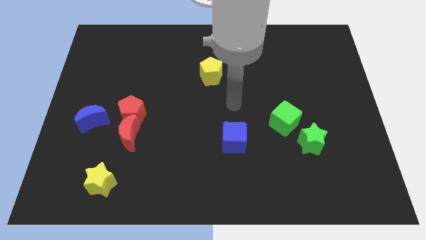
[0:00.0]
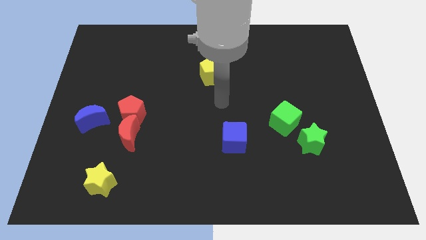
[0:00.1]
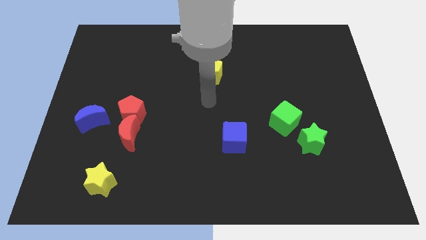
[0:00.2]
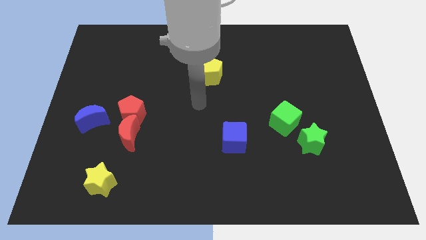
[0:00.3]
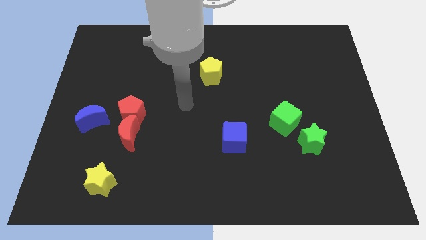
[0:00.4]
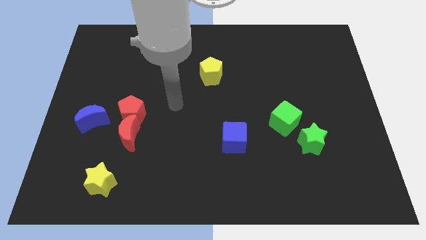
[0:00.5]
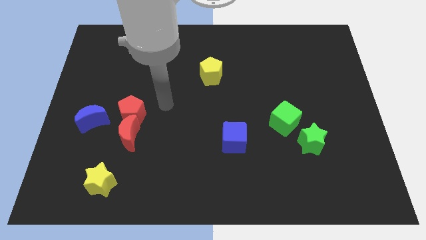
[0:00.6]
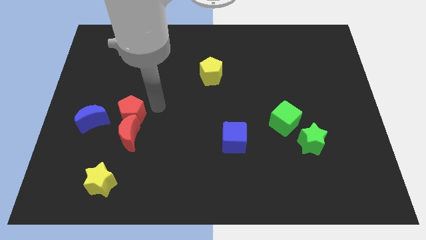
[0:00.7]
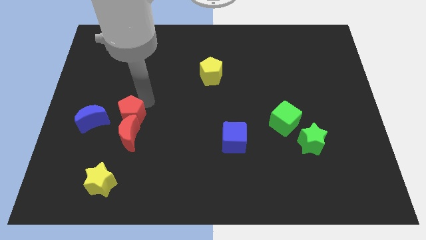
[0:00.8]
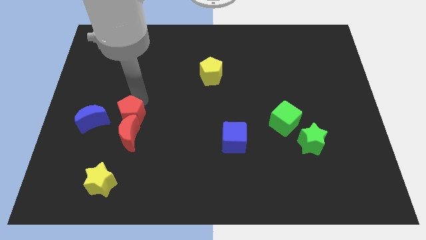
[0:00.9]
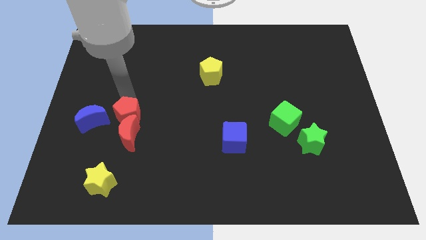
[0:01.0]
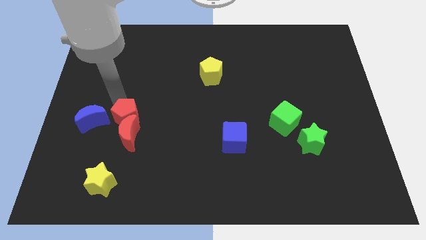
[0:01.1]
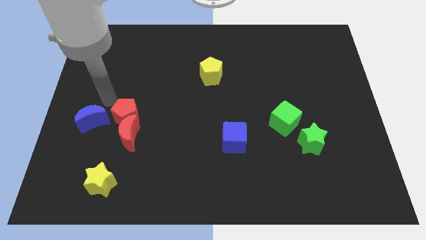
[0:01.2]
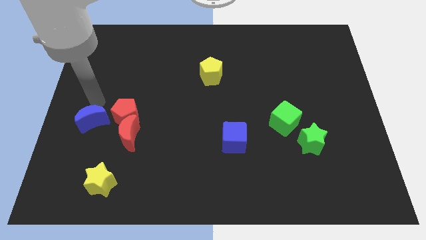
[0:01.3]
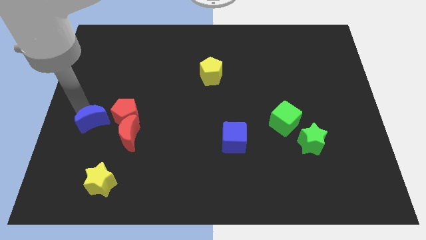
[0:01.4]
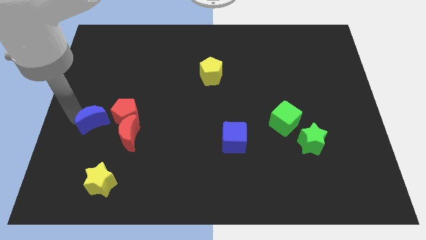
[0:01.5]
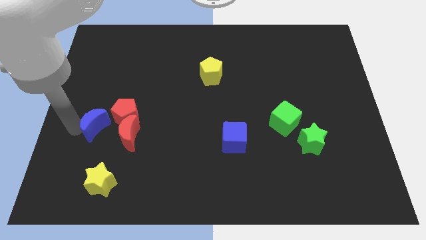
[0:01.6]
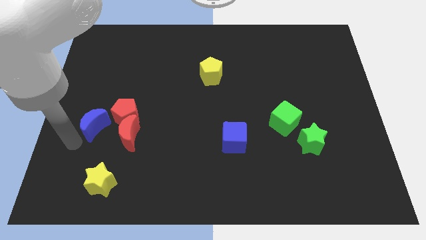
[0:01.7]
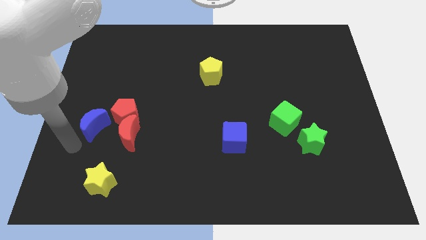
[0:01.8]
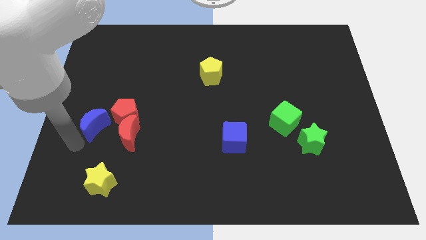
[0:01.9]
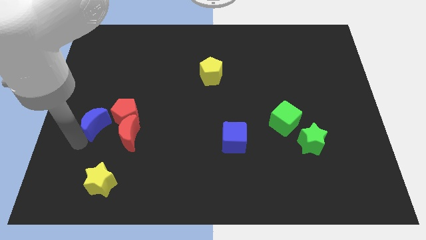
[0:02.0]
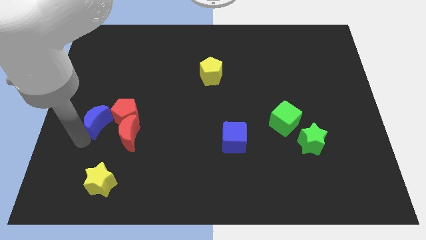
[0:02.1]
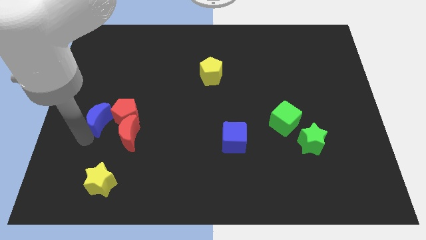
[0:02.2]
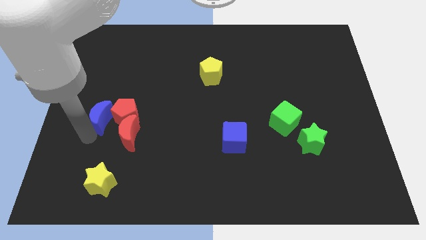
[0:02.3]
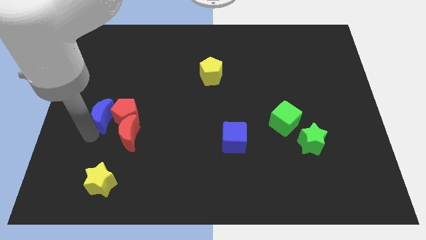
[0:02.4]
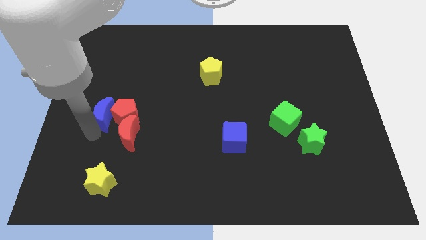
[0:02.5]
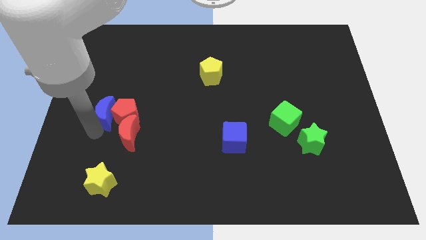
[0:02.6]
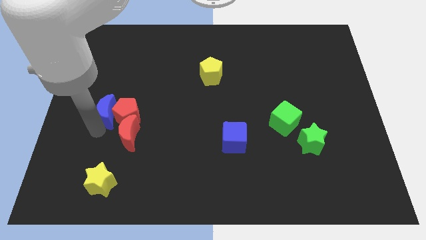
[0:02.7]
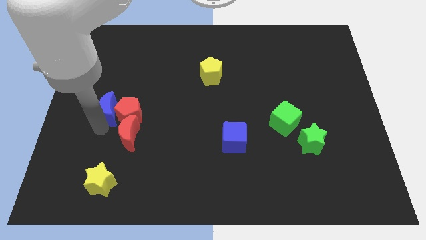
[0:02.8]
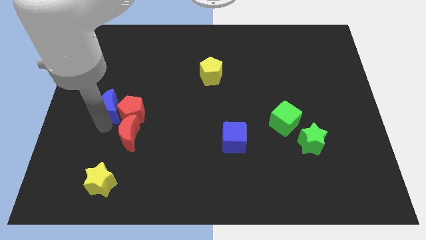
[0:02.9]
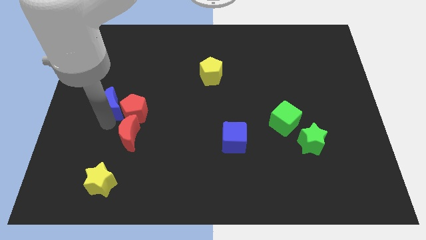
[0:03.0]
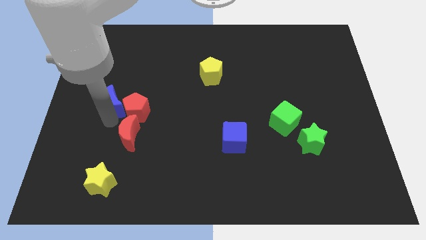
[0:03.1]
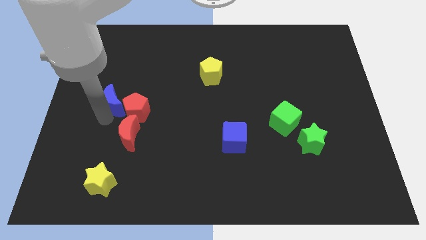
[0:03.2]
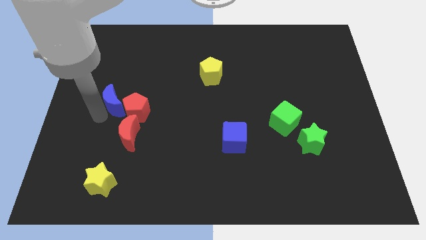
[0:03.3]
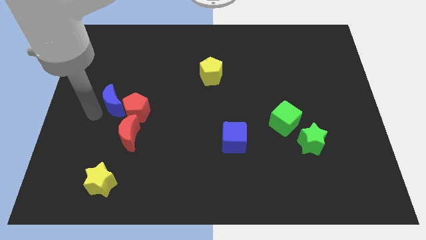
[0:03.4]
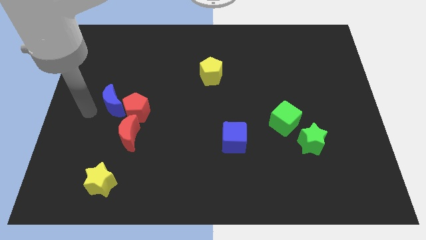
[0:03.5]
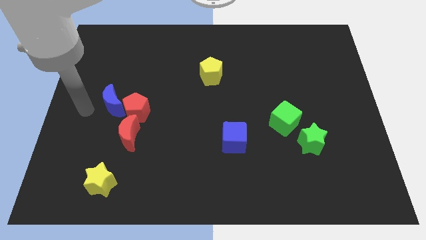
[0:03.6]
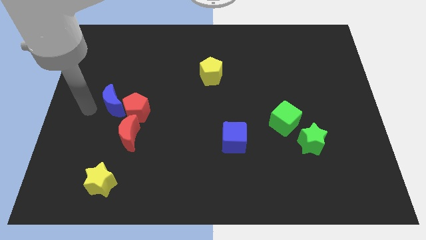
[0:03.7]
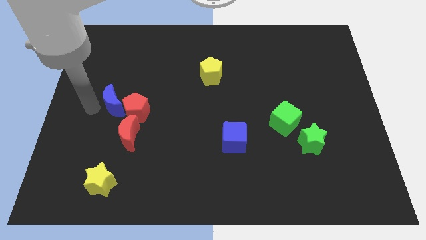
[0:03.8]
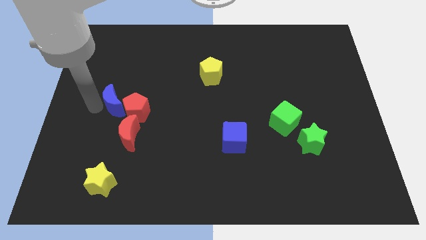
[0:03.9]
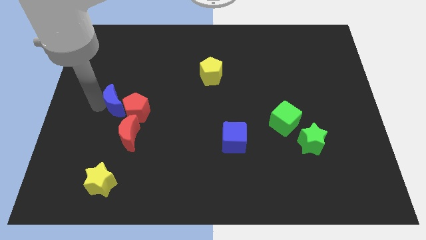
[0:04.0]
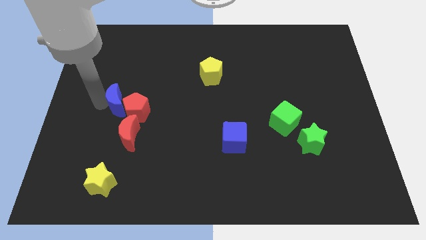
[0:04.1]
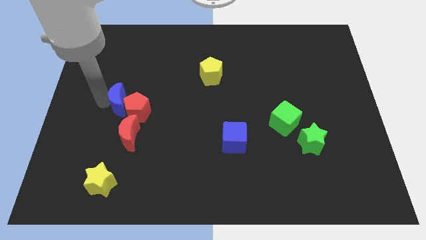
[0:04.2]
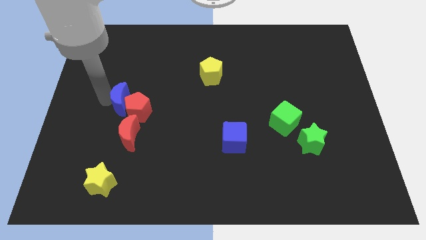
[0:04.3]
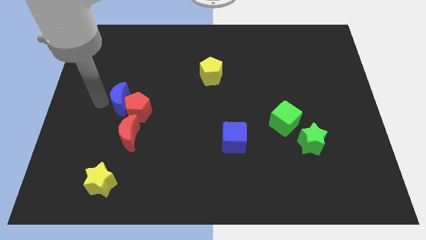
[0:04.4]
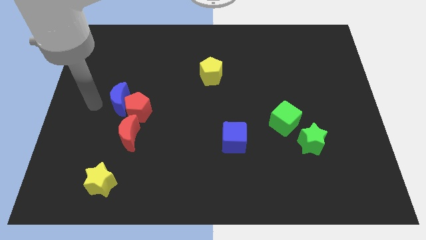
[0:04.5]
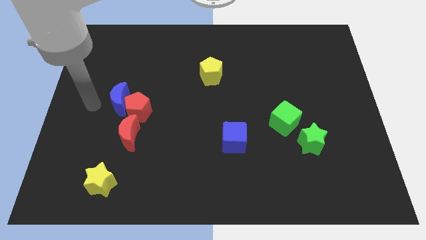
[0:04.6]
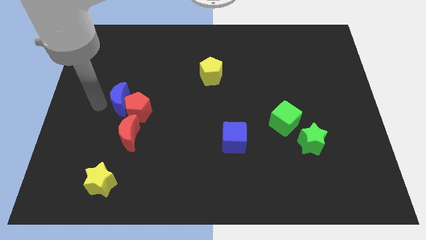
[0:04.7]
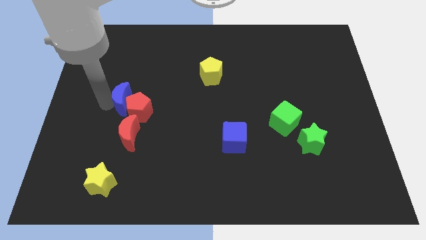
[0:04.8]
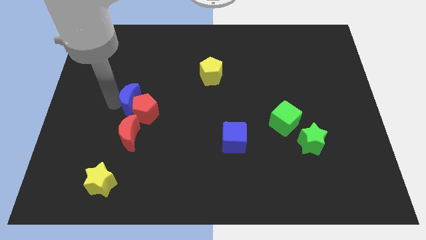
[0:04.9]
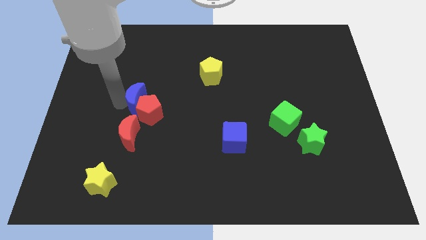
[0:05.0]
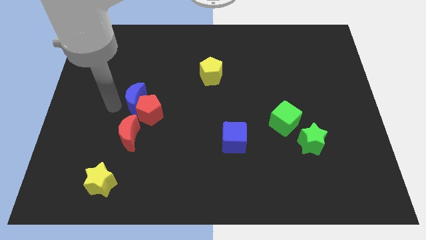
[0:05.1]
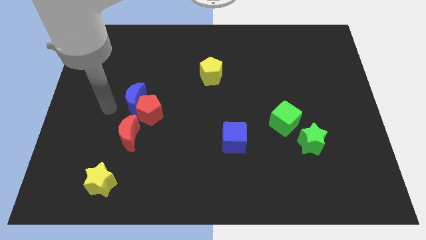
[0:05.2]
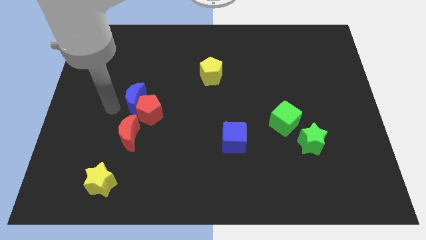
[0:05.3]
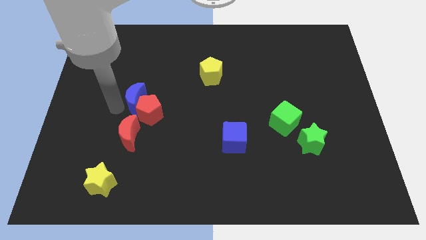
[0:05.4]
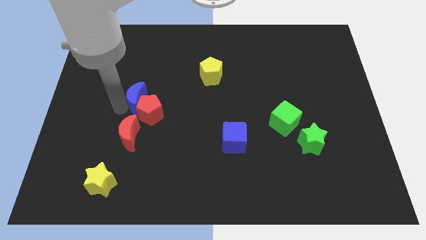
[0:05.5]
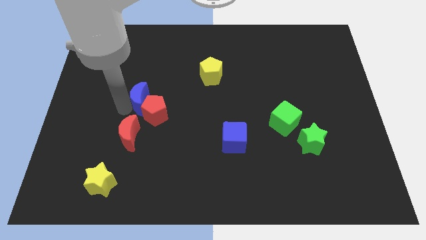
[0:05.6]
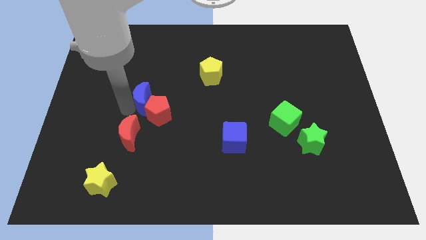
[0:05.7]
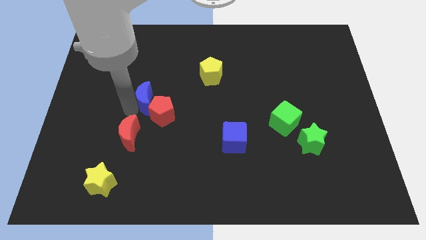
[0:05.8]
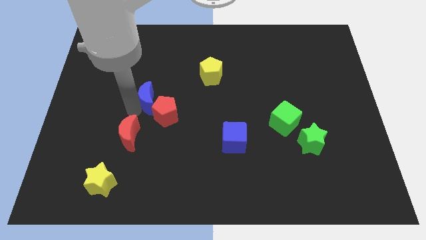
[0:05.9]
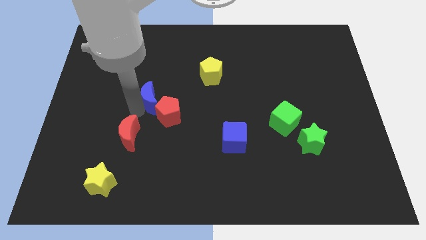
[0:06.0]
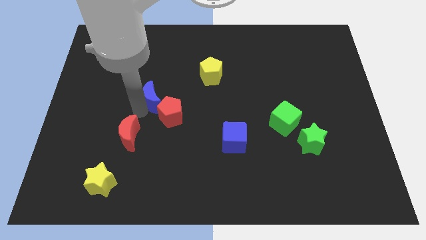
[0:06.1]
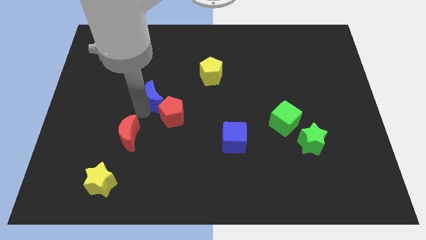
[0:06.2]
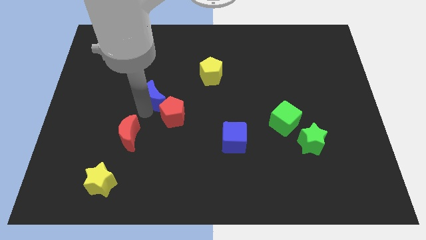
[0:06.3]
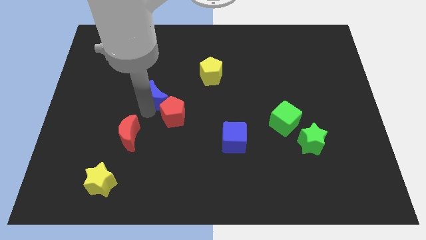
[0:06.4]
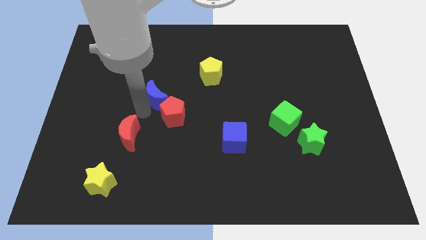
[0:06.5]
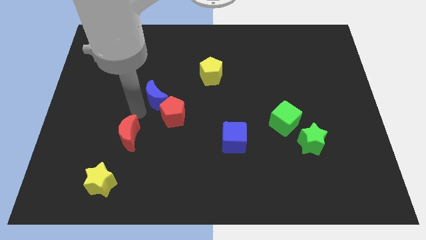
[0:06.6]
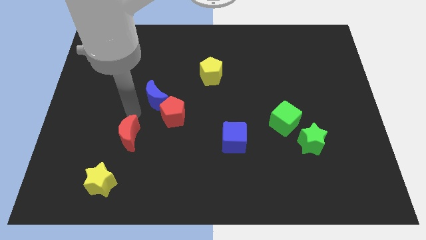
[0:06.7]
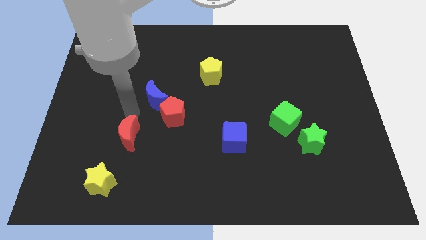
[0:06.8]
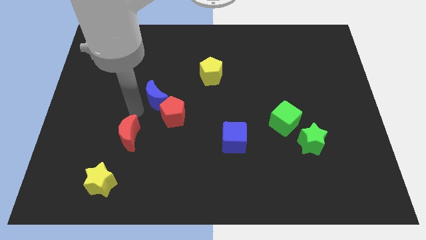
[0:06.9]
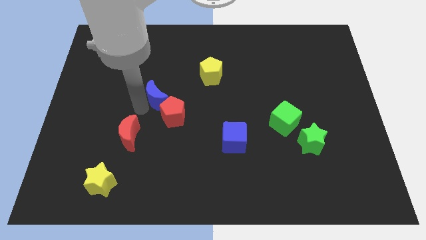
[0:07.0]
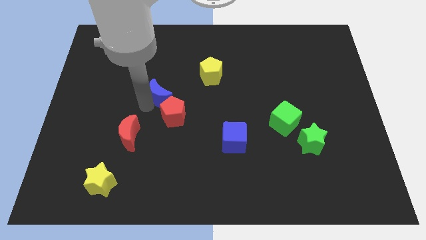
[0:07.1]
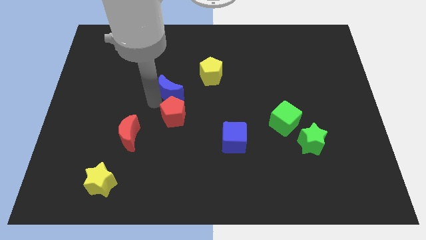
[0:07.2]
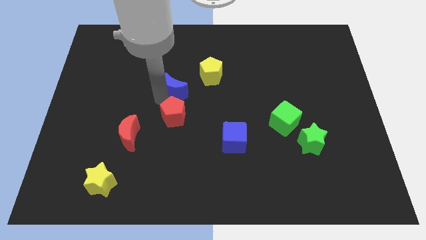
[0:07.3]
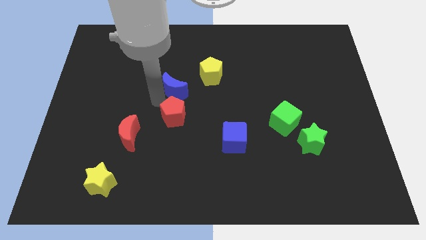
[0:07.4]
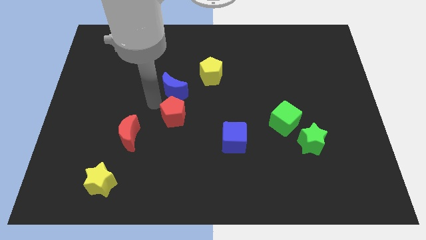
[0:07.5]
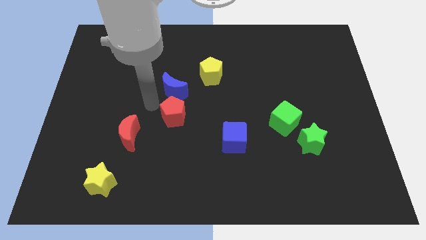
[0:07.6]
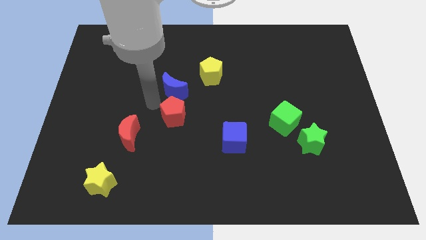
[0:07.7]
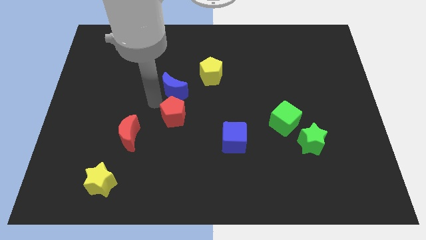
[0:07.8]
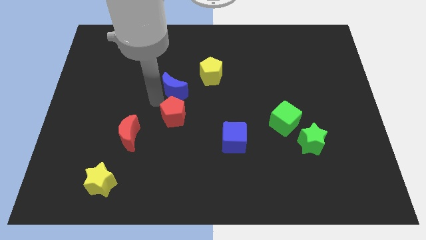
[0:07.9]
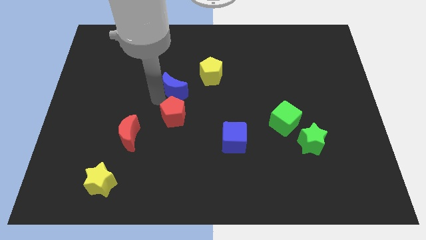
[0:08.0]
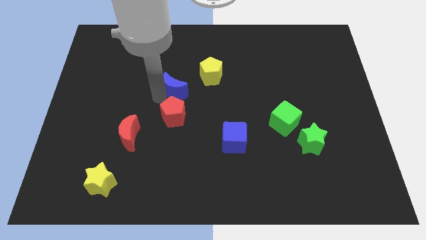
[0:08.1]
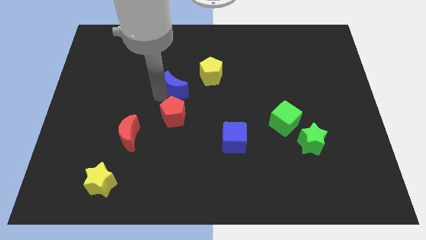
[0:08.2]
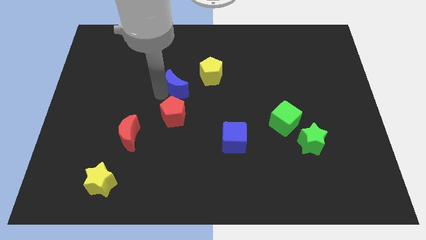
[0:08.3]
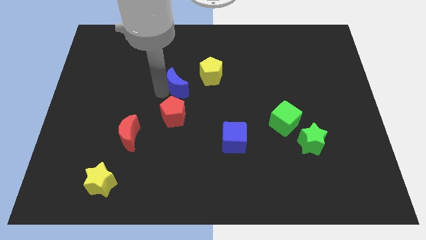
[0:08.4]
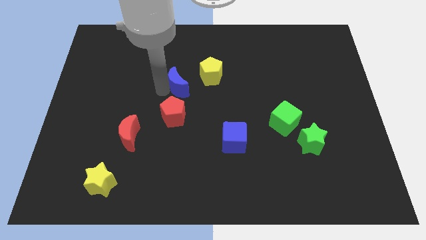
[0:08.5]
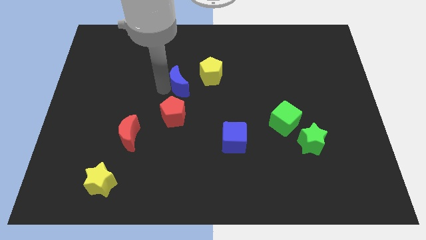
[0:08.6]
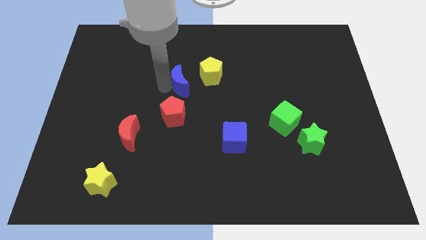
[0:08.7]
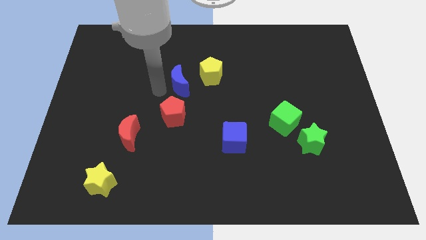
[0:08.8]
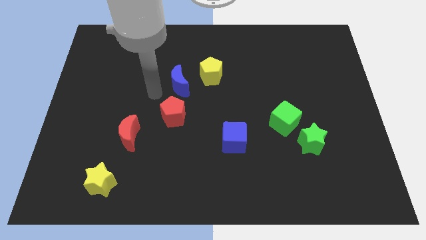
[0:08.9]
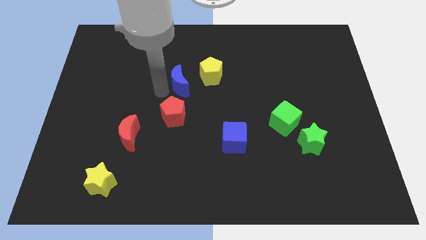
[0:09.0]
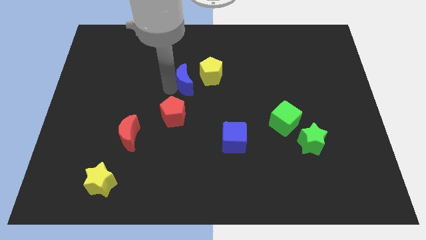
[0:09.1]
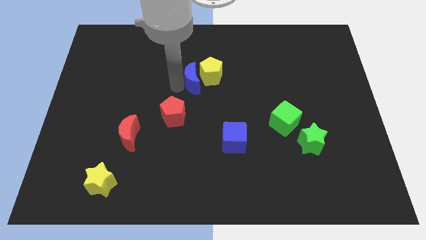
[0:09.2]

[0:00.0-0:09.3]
slide the blue moon close to the yellow pentagon
